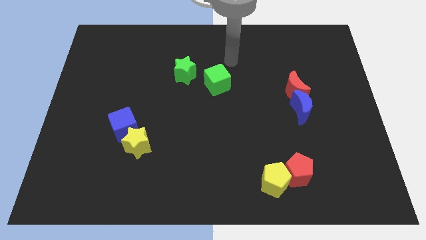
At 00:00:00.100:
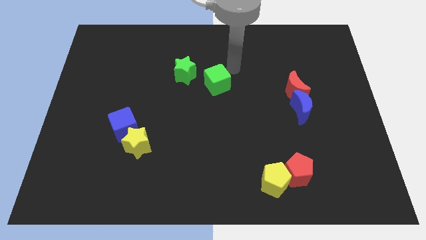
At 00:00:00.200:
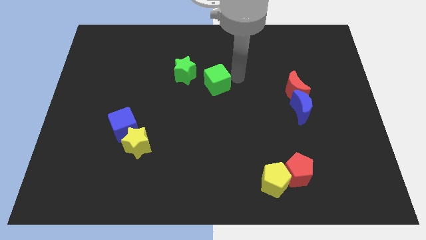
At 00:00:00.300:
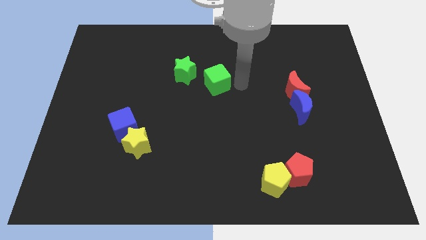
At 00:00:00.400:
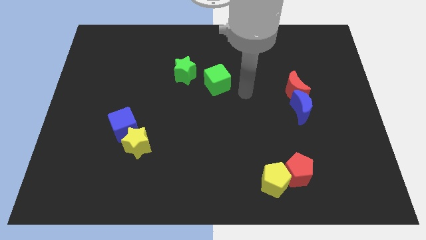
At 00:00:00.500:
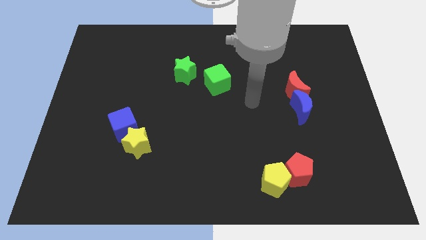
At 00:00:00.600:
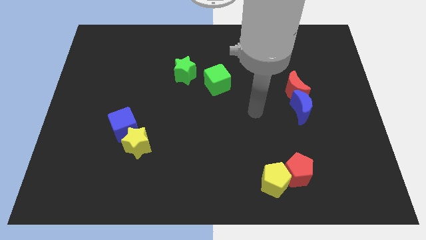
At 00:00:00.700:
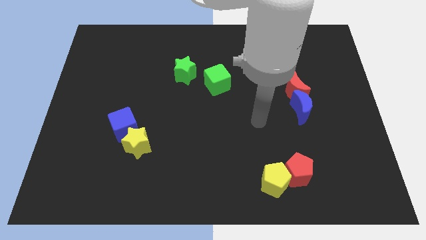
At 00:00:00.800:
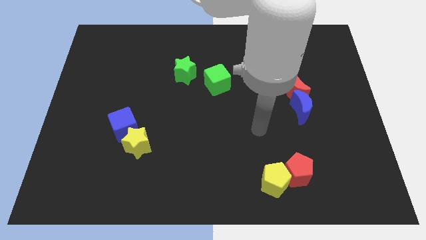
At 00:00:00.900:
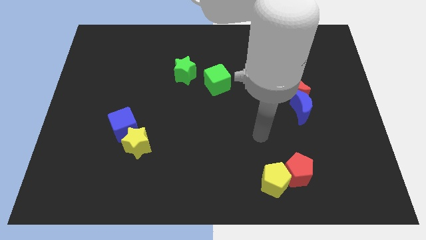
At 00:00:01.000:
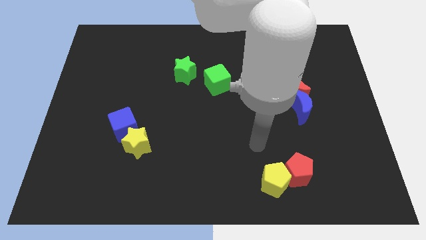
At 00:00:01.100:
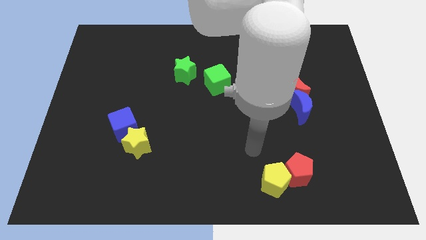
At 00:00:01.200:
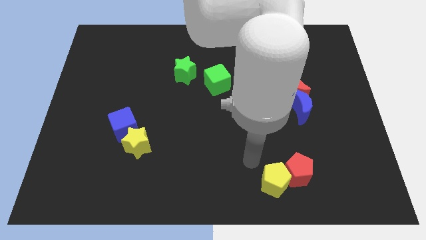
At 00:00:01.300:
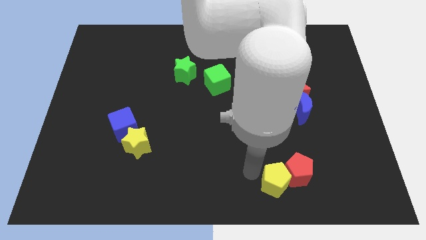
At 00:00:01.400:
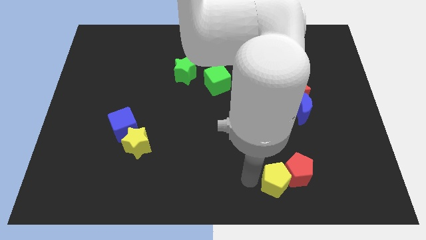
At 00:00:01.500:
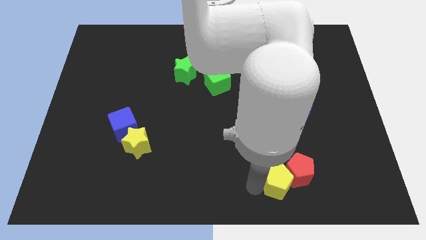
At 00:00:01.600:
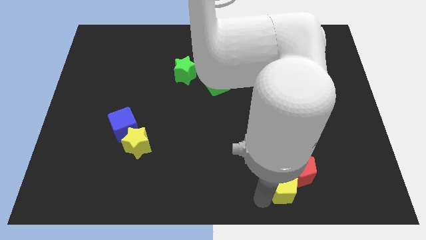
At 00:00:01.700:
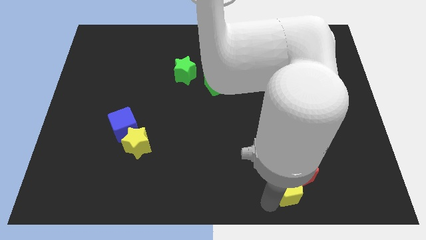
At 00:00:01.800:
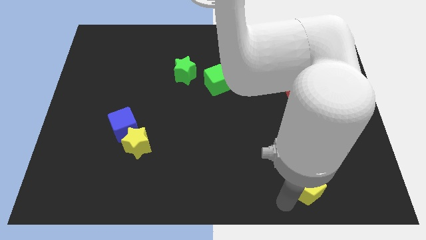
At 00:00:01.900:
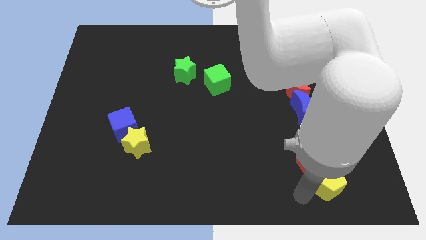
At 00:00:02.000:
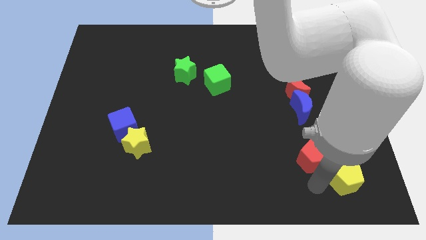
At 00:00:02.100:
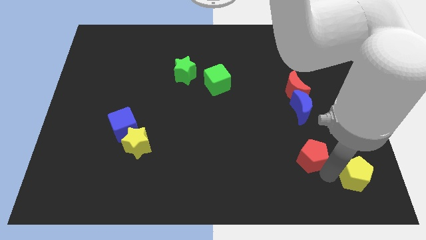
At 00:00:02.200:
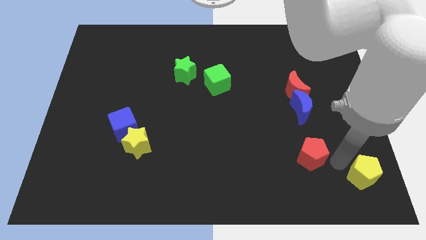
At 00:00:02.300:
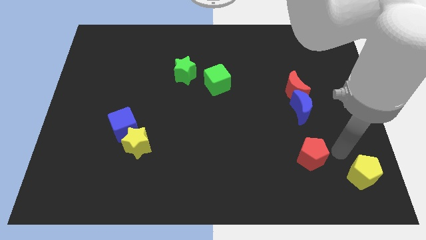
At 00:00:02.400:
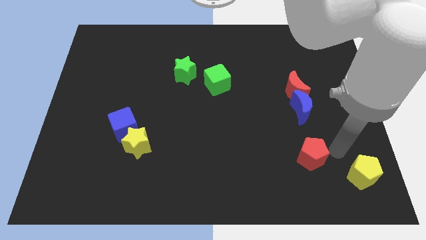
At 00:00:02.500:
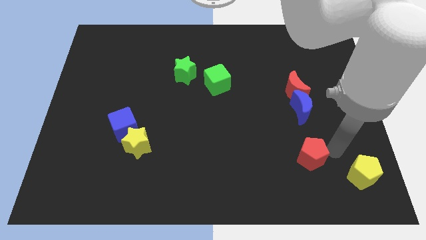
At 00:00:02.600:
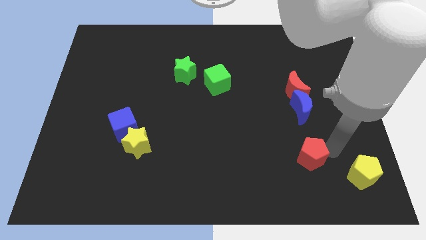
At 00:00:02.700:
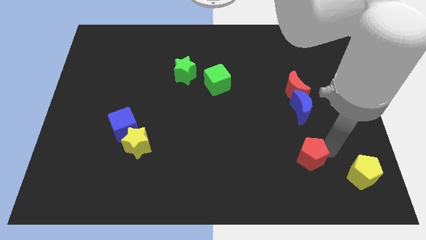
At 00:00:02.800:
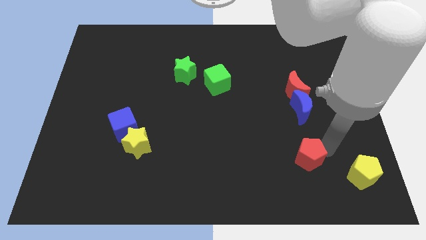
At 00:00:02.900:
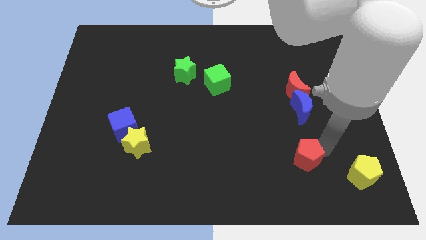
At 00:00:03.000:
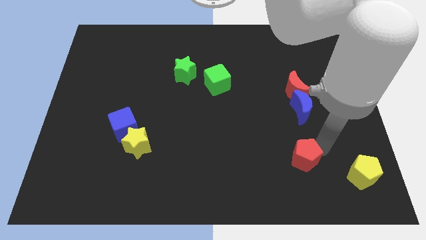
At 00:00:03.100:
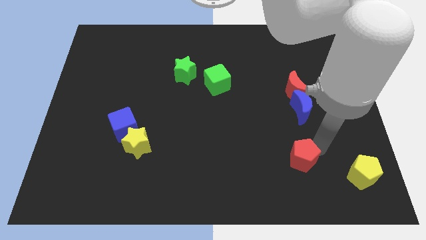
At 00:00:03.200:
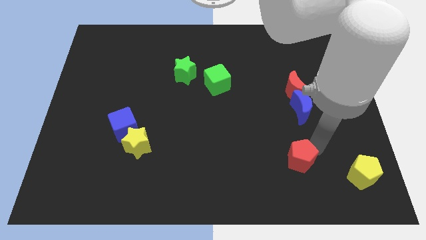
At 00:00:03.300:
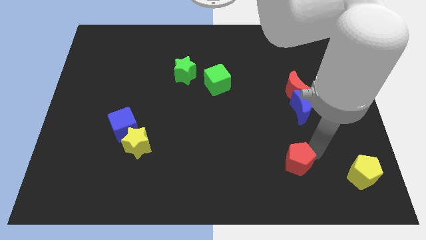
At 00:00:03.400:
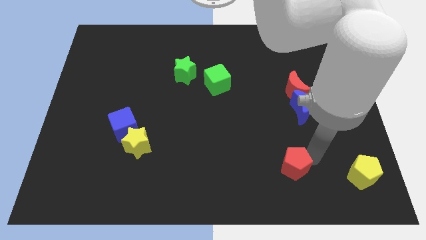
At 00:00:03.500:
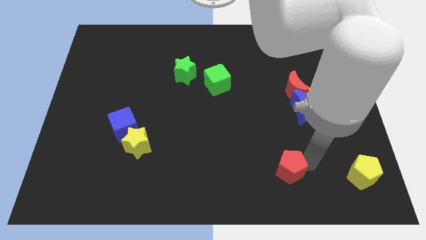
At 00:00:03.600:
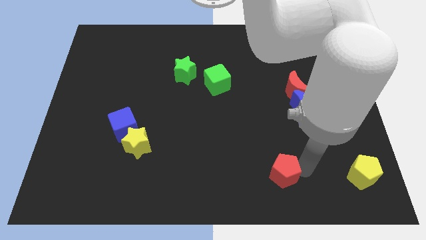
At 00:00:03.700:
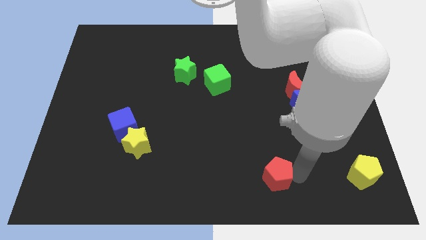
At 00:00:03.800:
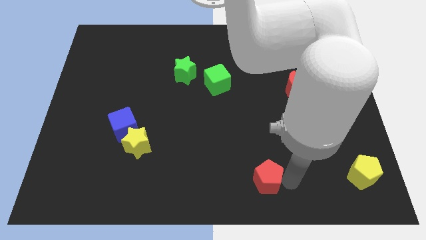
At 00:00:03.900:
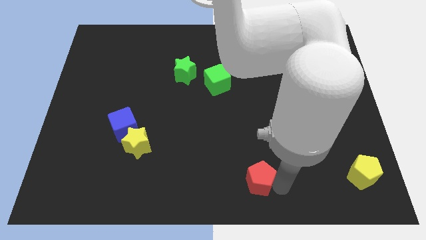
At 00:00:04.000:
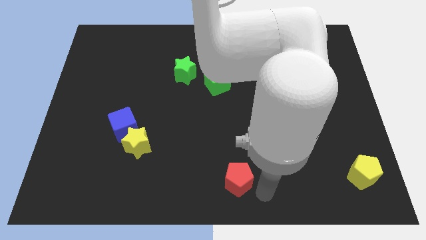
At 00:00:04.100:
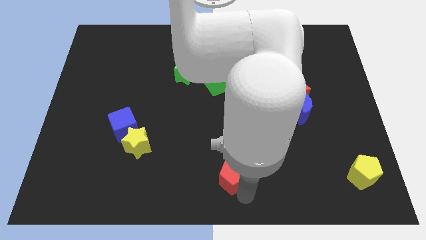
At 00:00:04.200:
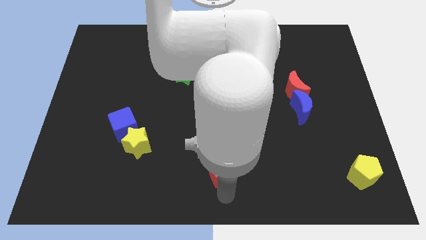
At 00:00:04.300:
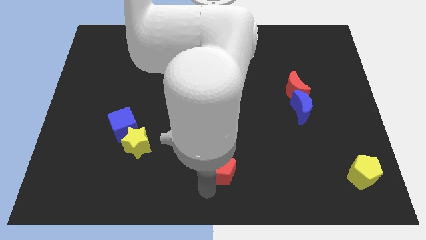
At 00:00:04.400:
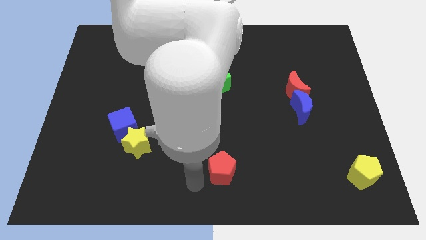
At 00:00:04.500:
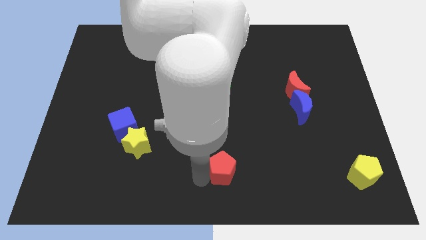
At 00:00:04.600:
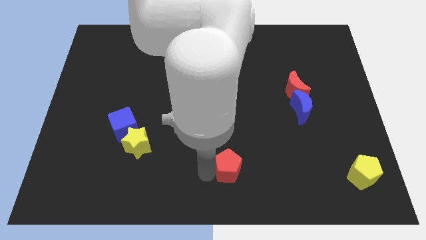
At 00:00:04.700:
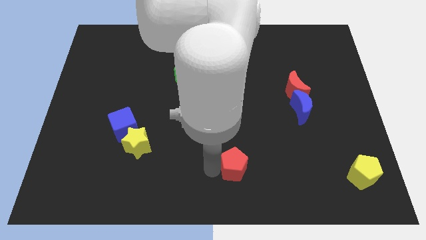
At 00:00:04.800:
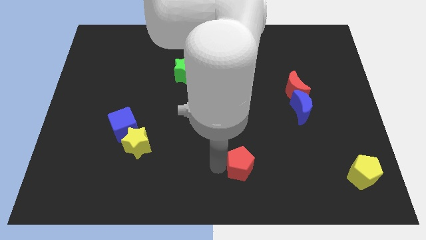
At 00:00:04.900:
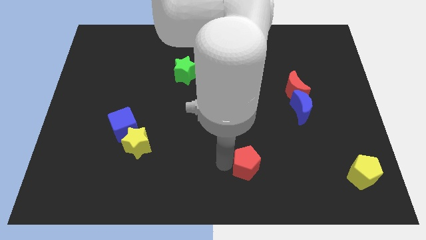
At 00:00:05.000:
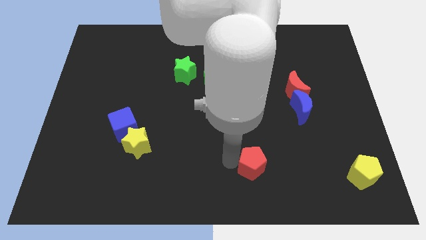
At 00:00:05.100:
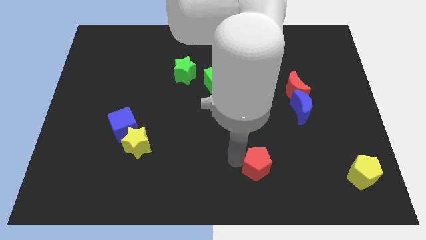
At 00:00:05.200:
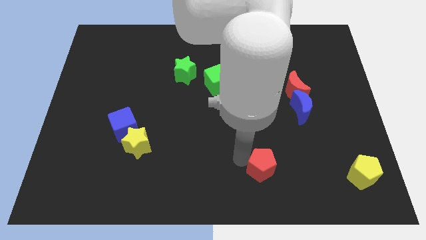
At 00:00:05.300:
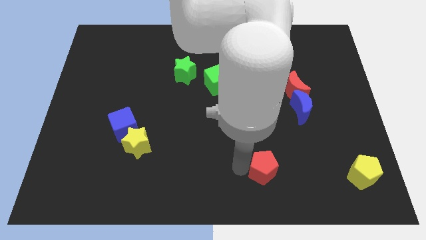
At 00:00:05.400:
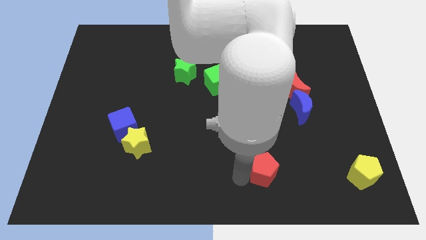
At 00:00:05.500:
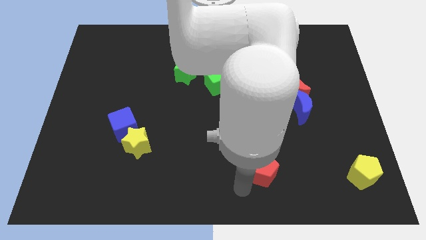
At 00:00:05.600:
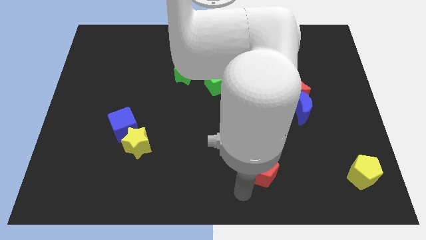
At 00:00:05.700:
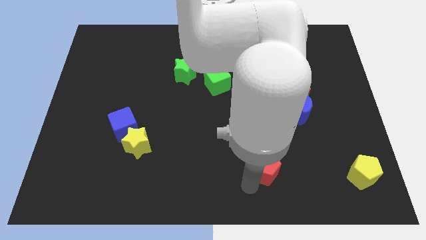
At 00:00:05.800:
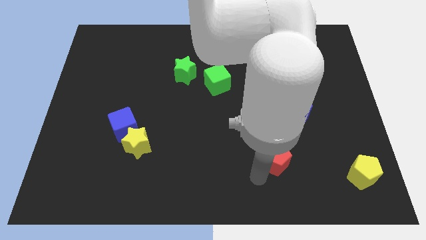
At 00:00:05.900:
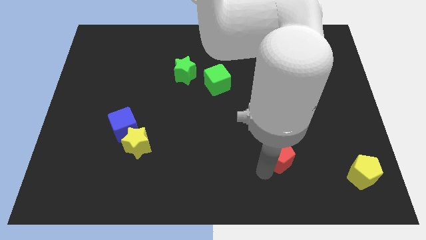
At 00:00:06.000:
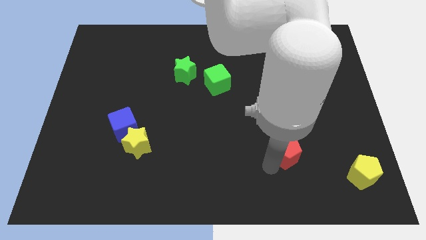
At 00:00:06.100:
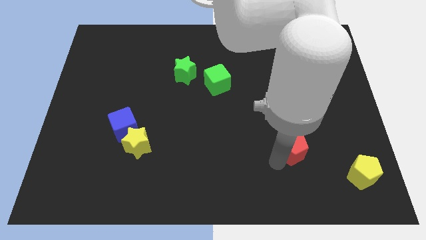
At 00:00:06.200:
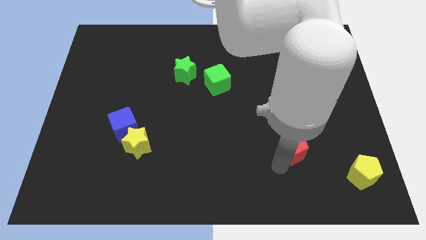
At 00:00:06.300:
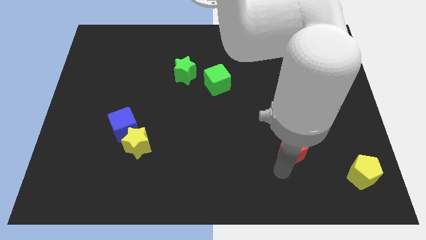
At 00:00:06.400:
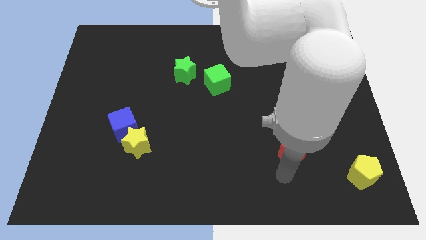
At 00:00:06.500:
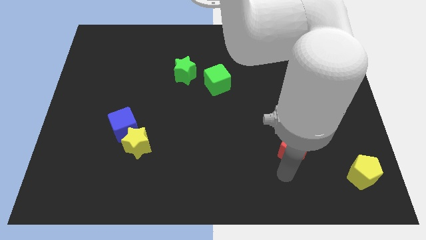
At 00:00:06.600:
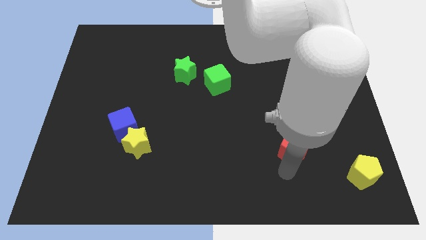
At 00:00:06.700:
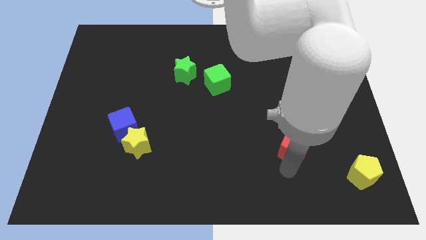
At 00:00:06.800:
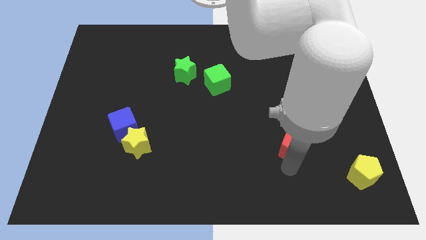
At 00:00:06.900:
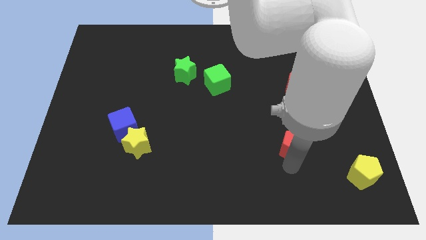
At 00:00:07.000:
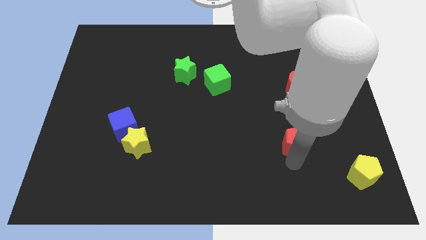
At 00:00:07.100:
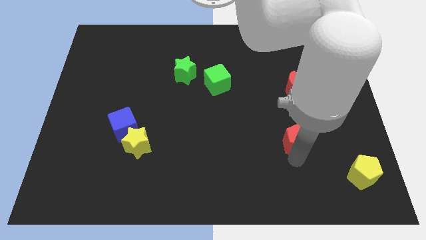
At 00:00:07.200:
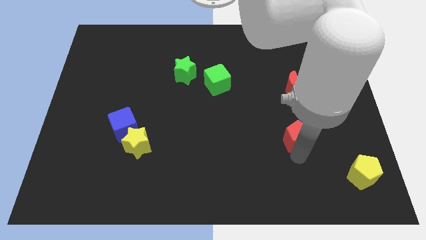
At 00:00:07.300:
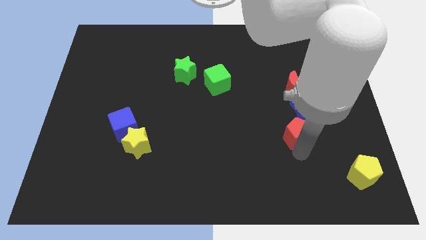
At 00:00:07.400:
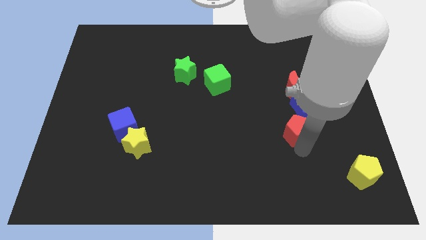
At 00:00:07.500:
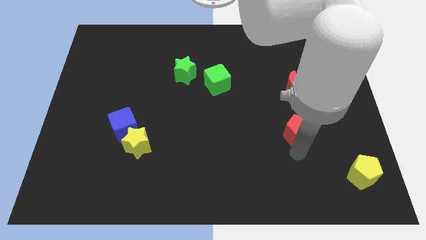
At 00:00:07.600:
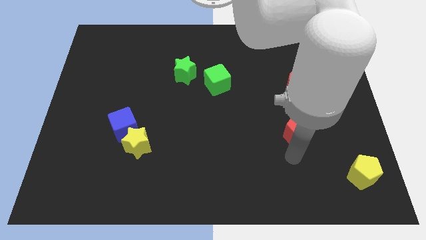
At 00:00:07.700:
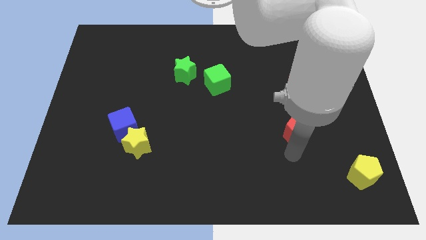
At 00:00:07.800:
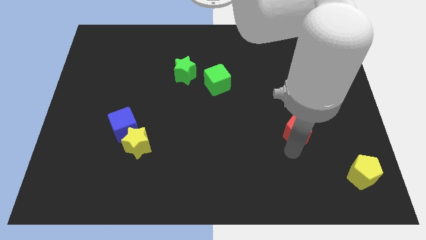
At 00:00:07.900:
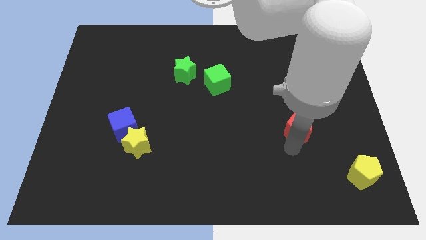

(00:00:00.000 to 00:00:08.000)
put the red pentagon to the blue moon

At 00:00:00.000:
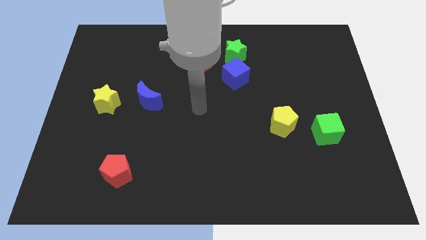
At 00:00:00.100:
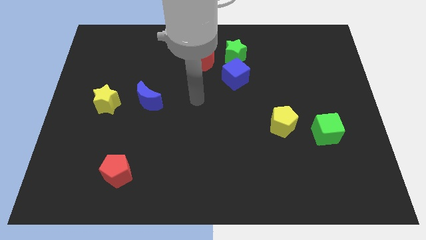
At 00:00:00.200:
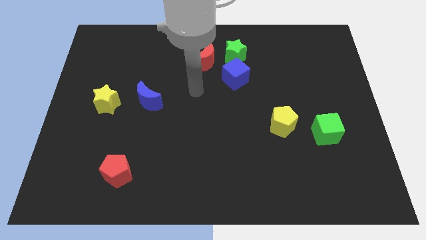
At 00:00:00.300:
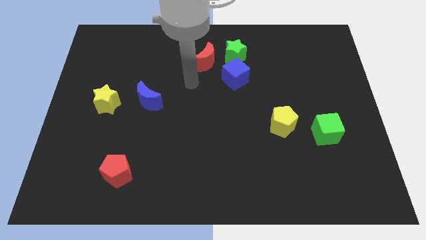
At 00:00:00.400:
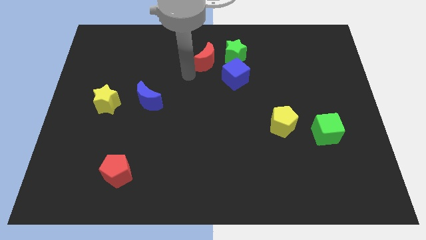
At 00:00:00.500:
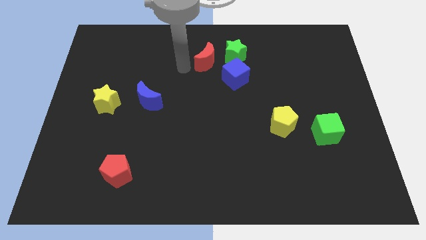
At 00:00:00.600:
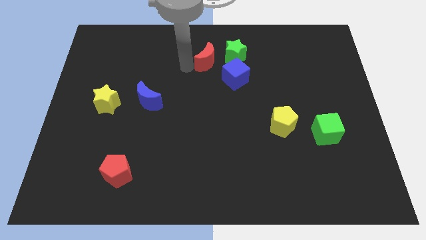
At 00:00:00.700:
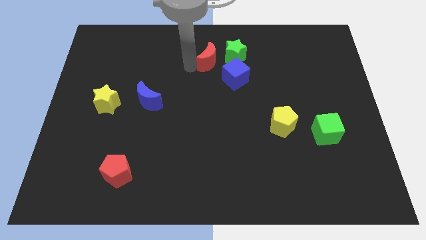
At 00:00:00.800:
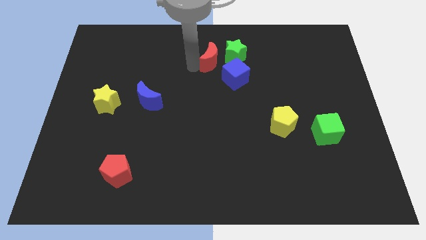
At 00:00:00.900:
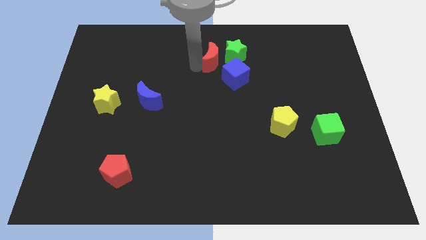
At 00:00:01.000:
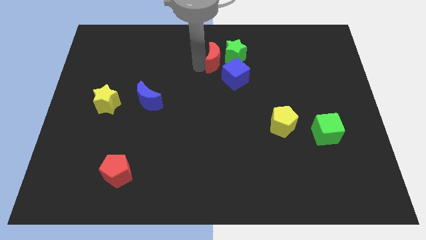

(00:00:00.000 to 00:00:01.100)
move the red moon close to the green star
